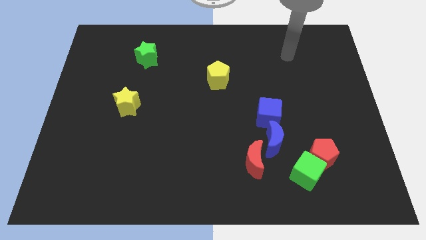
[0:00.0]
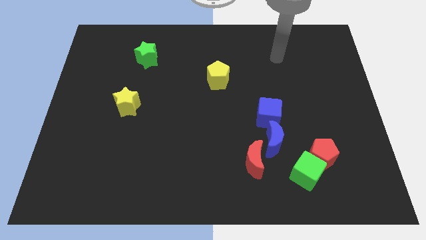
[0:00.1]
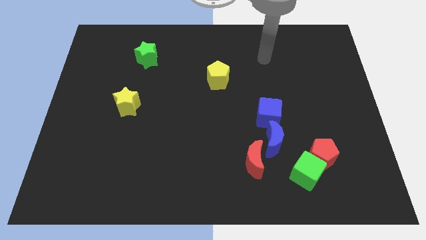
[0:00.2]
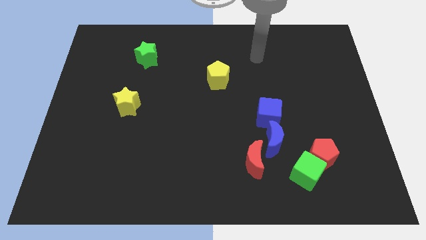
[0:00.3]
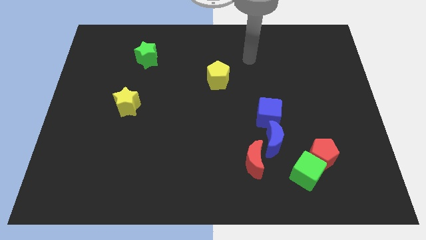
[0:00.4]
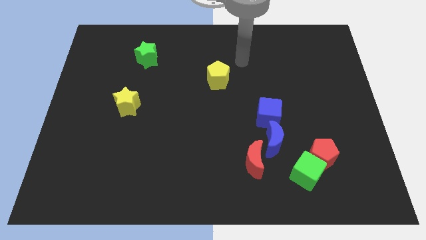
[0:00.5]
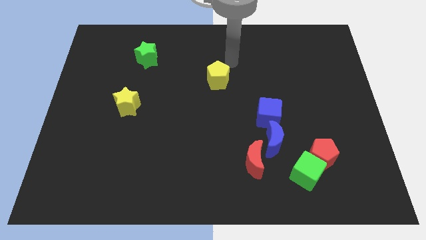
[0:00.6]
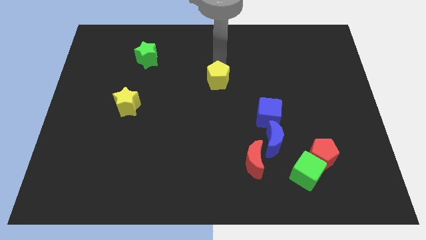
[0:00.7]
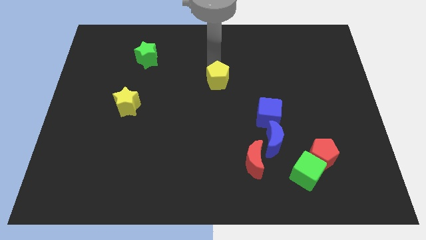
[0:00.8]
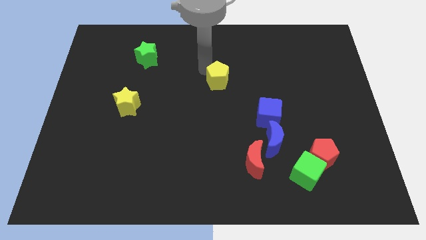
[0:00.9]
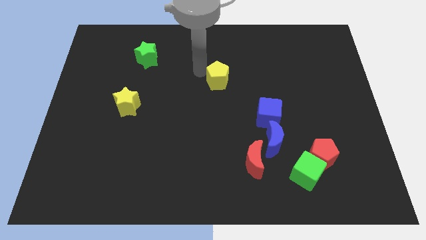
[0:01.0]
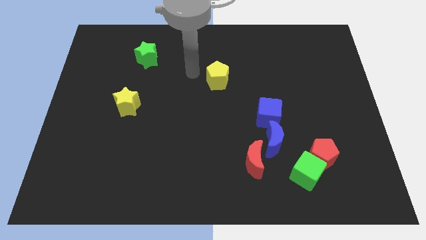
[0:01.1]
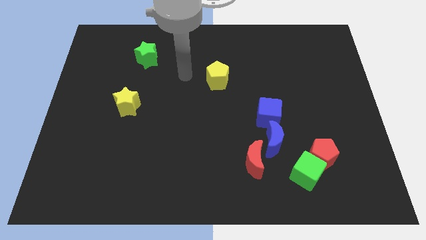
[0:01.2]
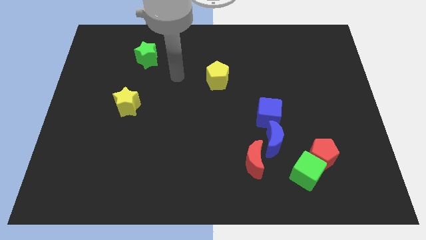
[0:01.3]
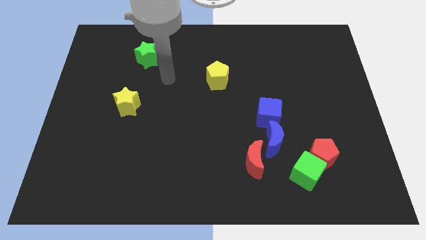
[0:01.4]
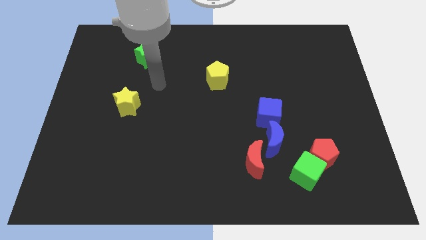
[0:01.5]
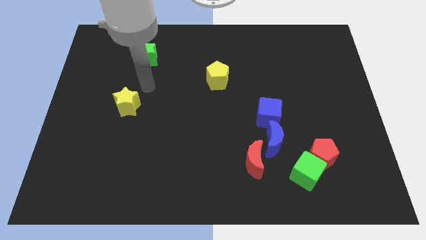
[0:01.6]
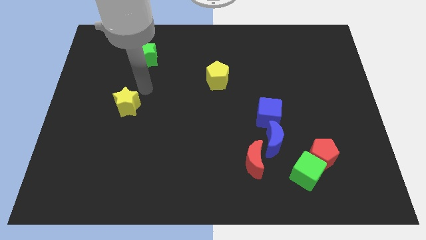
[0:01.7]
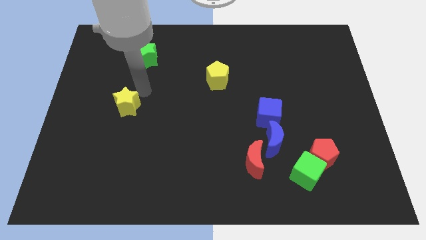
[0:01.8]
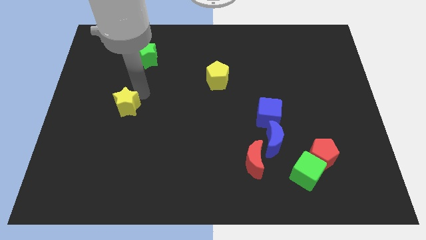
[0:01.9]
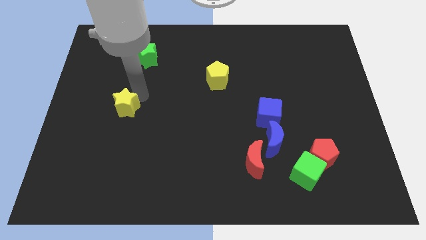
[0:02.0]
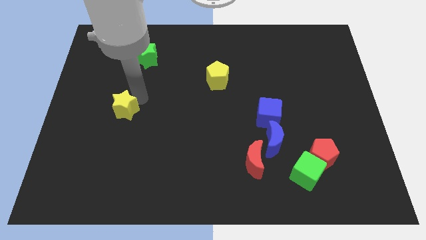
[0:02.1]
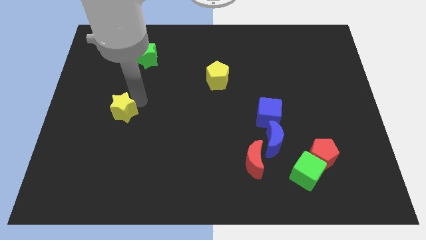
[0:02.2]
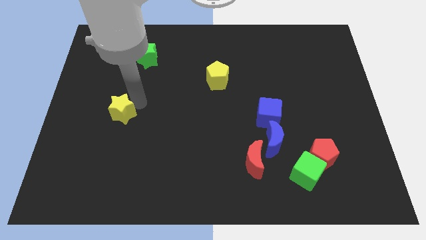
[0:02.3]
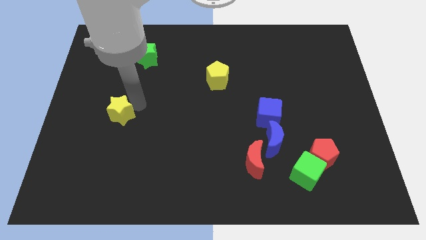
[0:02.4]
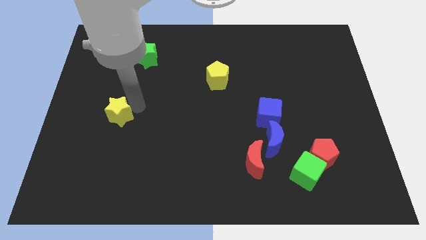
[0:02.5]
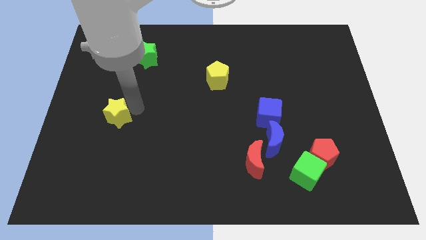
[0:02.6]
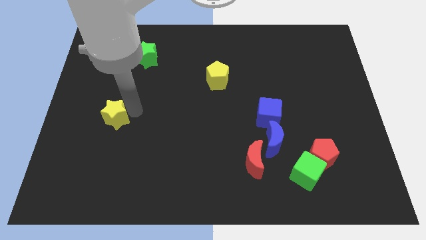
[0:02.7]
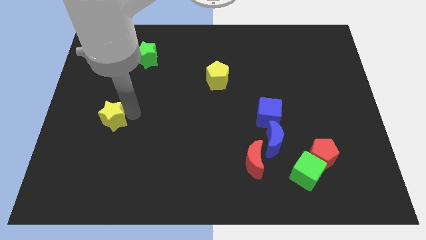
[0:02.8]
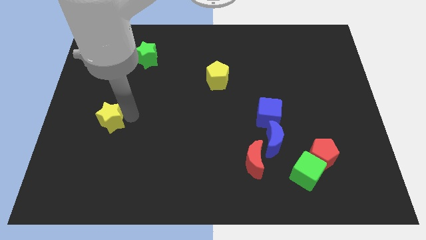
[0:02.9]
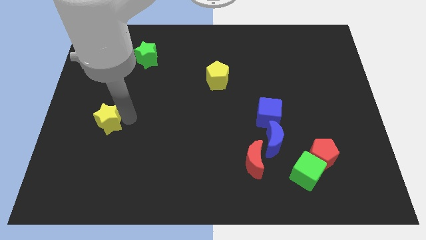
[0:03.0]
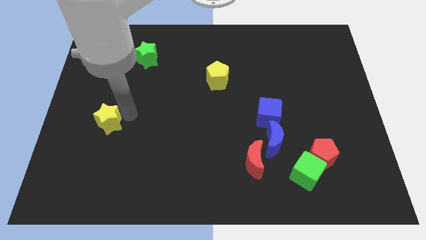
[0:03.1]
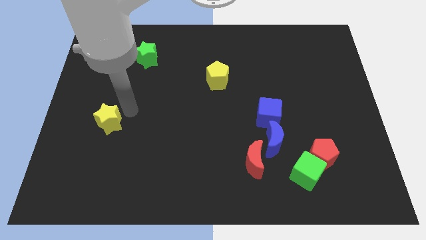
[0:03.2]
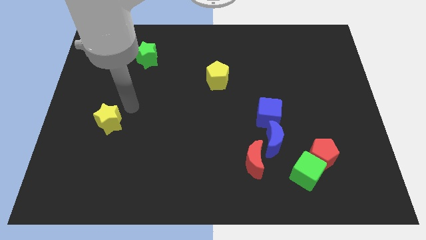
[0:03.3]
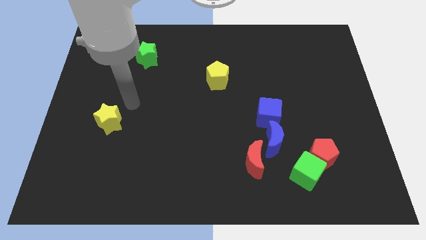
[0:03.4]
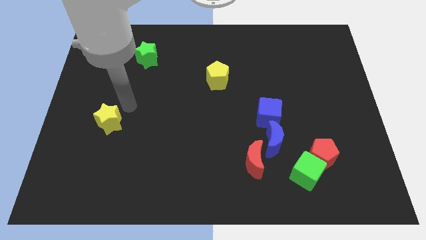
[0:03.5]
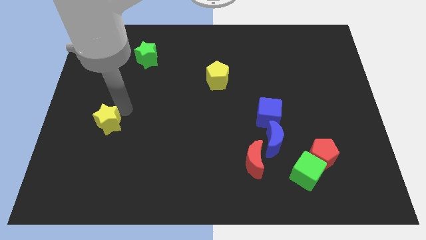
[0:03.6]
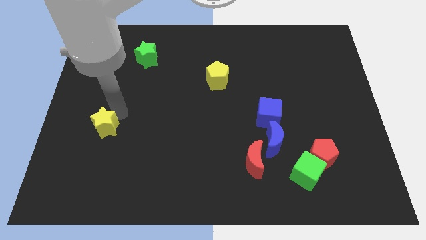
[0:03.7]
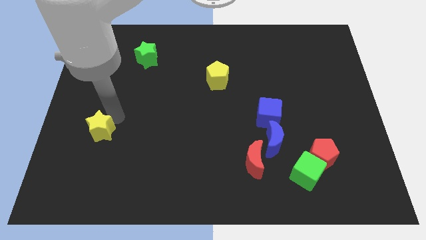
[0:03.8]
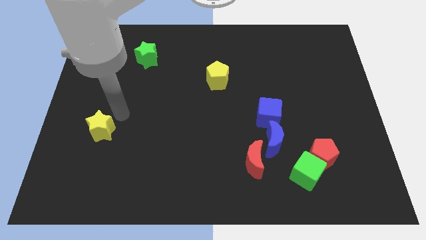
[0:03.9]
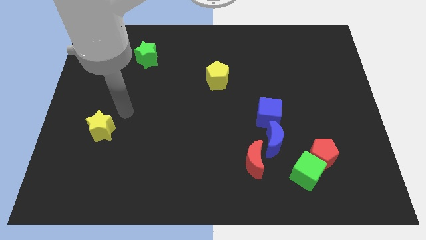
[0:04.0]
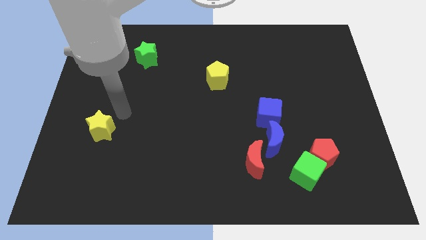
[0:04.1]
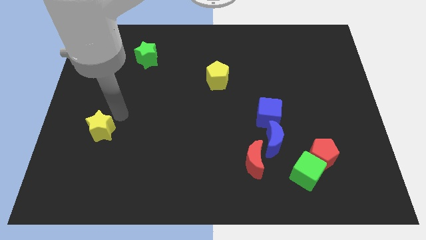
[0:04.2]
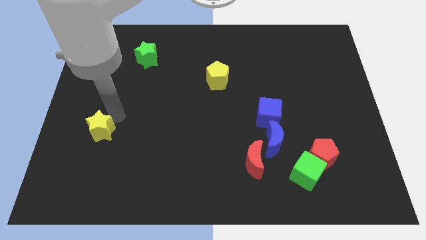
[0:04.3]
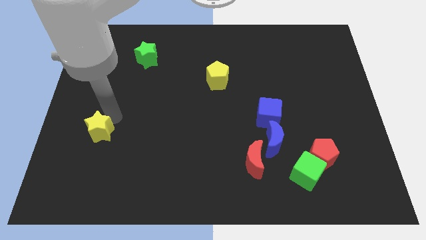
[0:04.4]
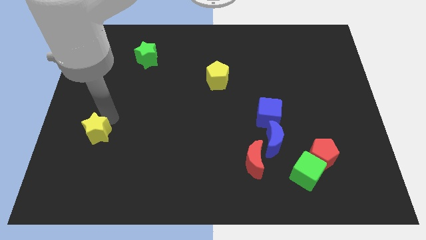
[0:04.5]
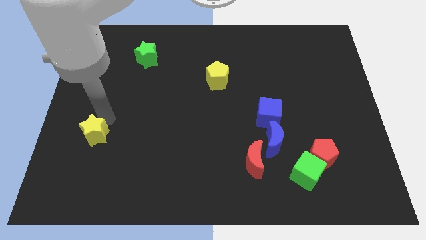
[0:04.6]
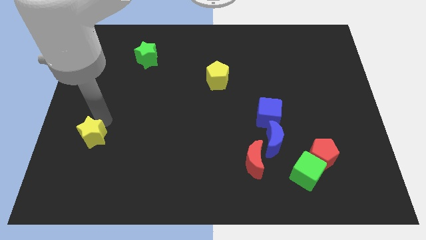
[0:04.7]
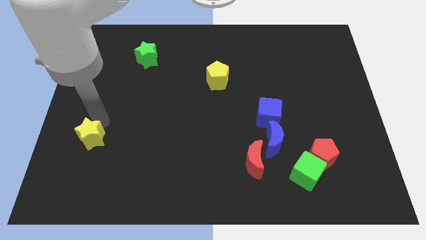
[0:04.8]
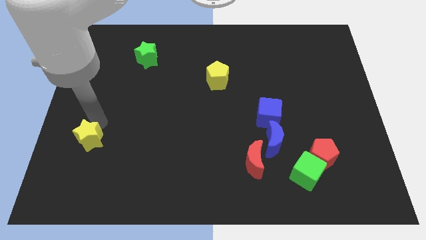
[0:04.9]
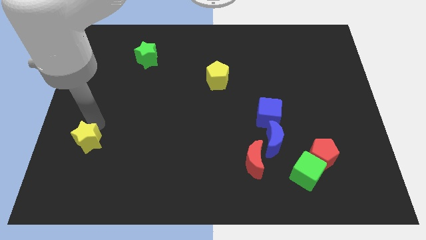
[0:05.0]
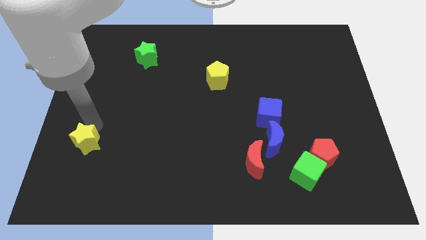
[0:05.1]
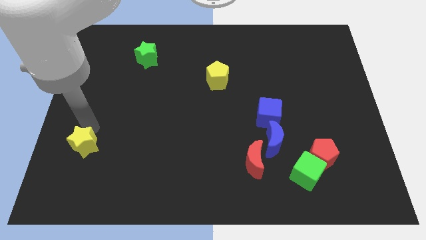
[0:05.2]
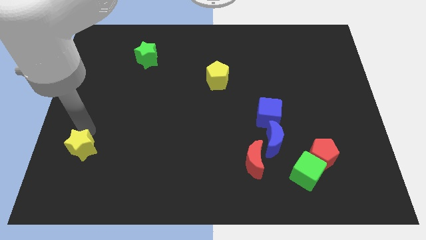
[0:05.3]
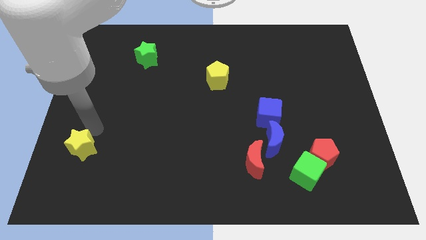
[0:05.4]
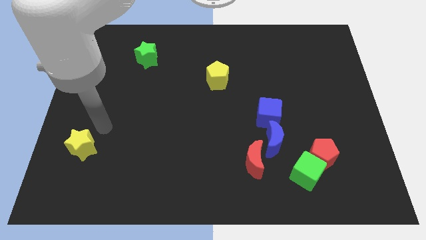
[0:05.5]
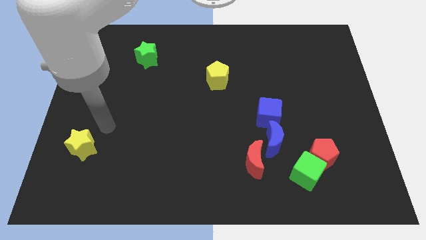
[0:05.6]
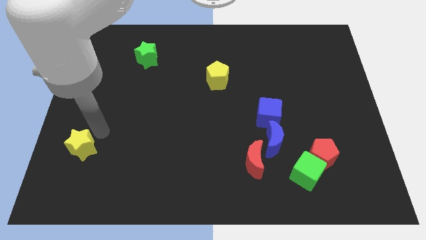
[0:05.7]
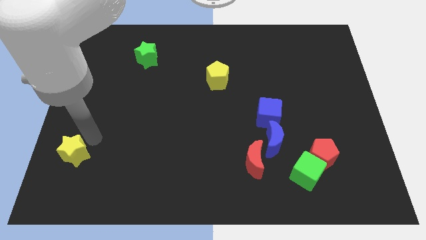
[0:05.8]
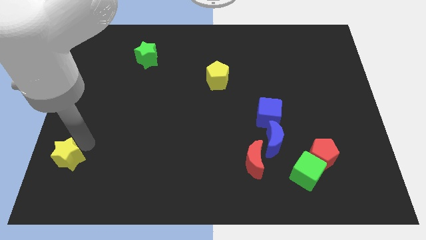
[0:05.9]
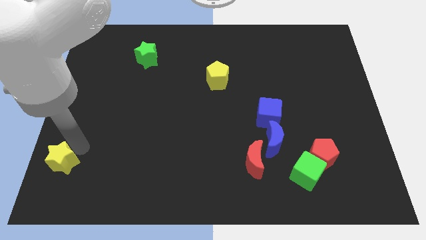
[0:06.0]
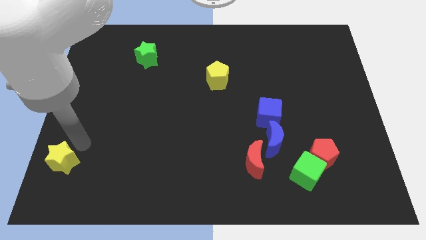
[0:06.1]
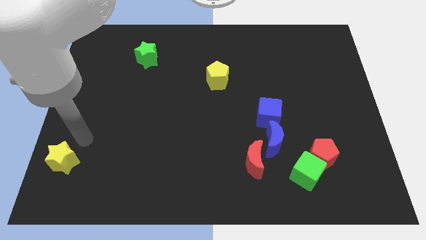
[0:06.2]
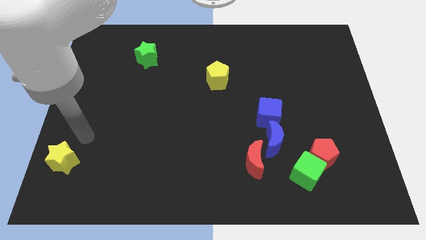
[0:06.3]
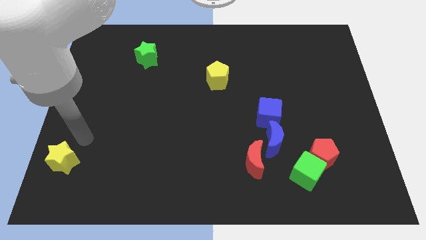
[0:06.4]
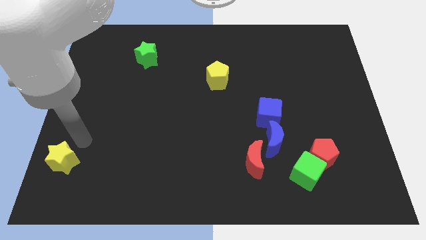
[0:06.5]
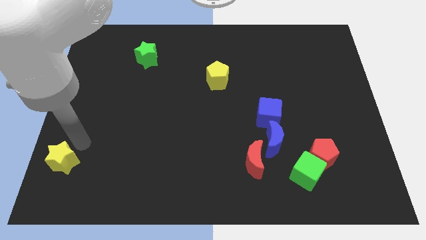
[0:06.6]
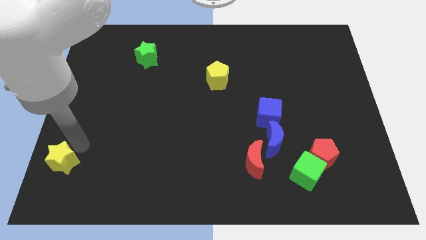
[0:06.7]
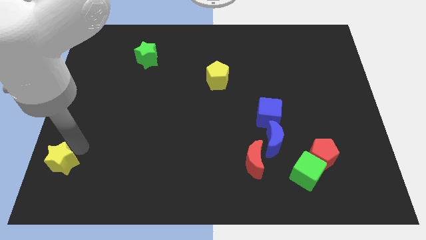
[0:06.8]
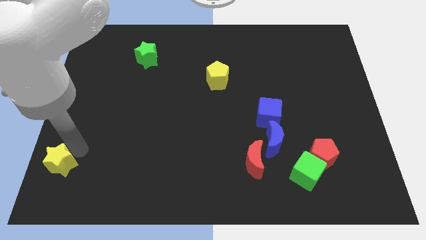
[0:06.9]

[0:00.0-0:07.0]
put the yellow star to the bottom left
